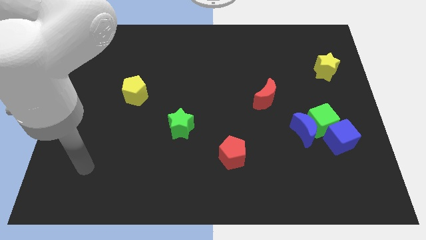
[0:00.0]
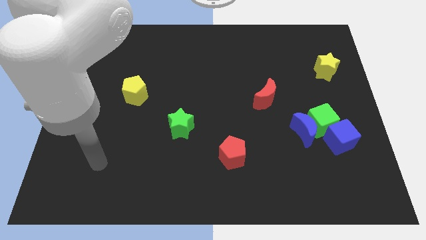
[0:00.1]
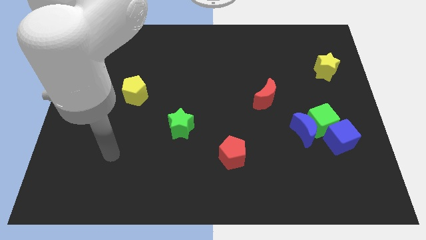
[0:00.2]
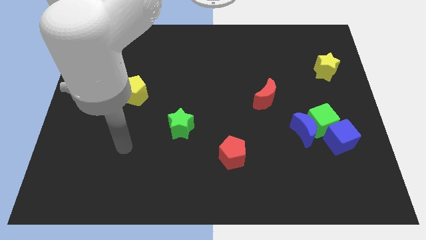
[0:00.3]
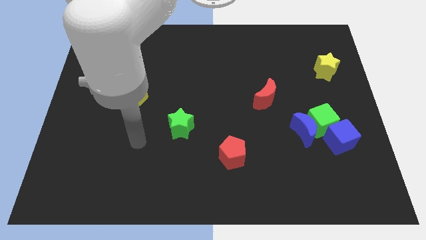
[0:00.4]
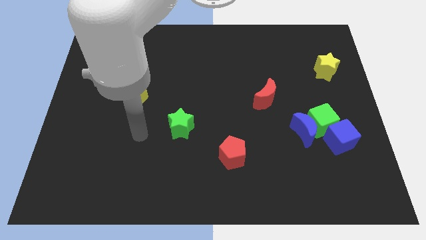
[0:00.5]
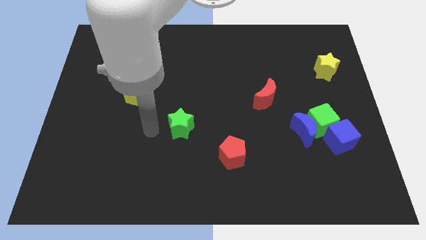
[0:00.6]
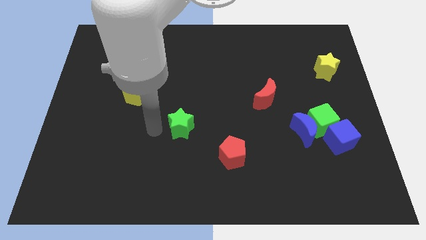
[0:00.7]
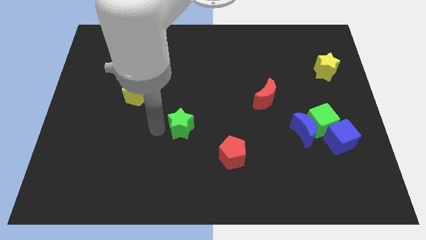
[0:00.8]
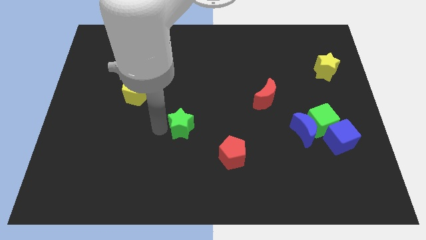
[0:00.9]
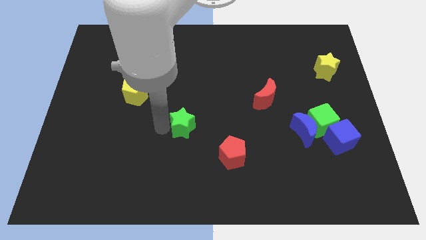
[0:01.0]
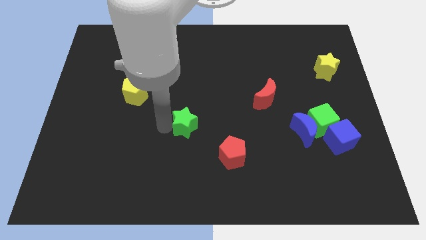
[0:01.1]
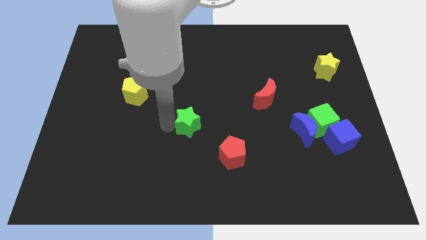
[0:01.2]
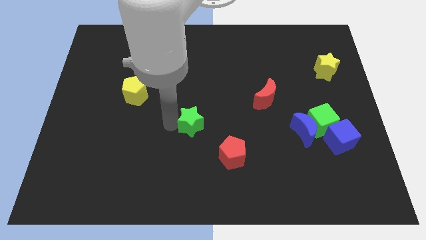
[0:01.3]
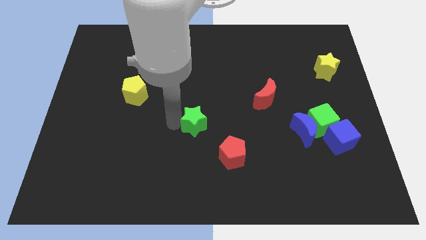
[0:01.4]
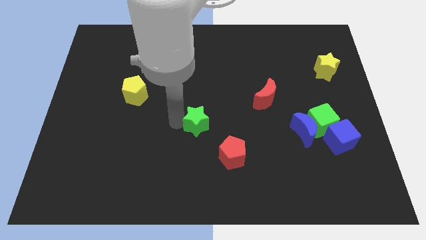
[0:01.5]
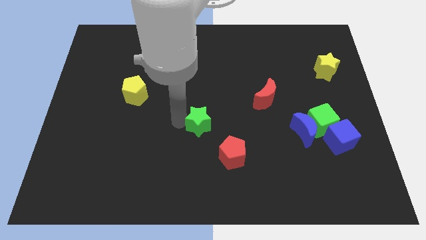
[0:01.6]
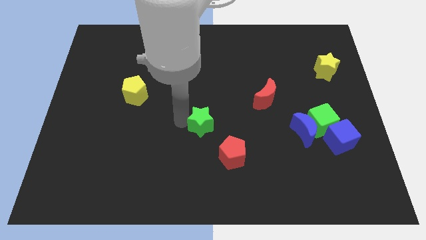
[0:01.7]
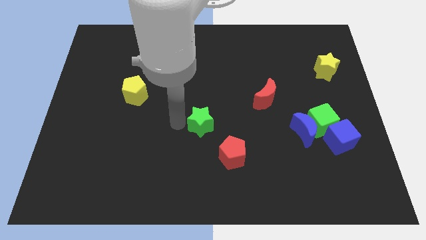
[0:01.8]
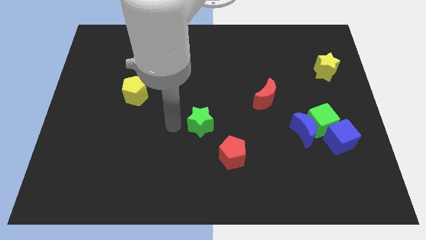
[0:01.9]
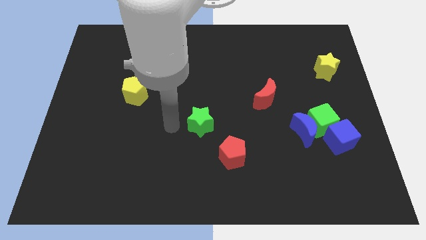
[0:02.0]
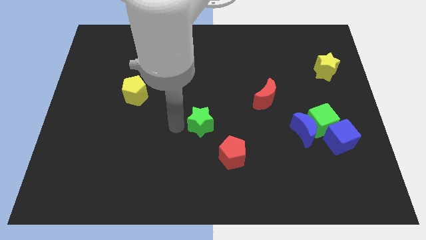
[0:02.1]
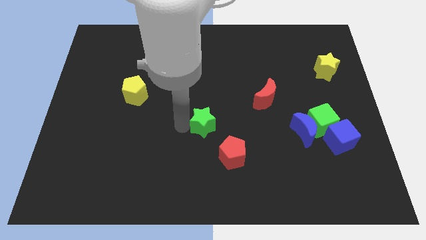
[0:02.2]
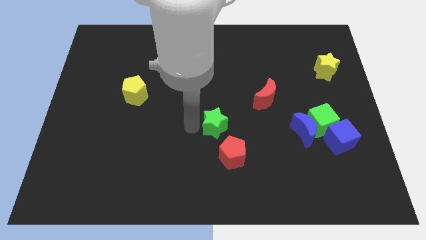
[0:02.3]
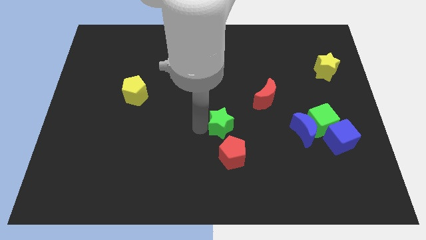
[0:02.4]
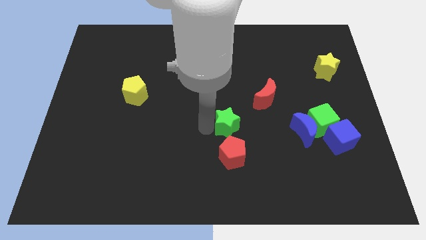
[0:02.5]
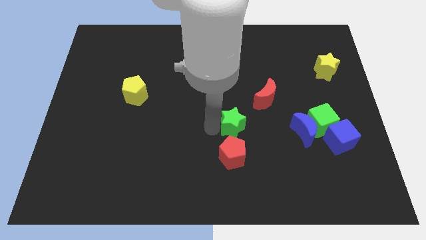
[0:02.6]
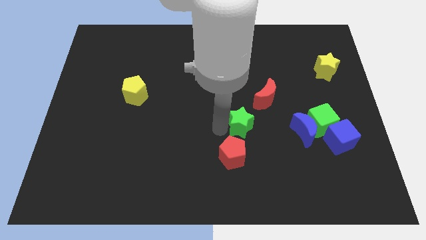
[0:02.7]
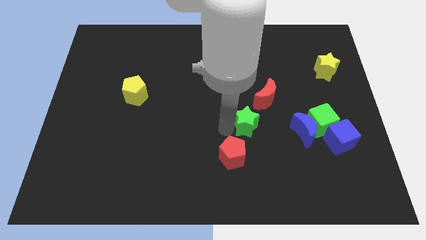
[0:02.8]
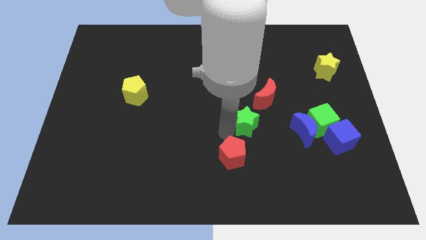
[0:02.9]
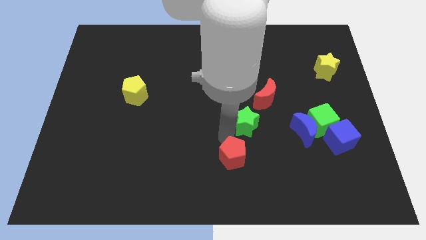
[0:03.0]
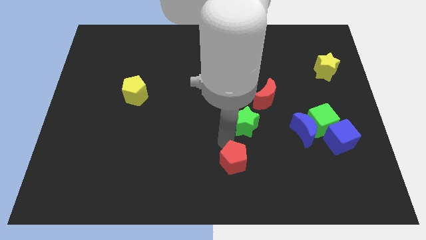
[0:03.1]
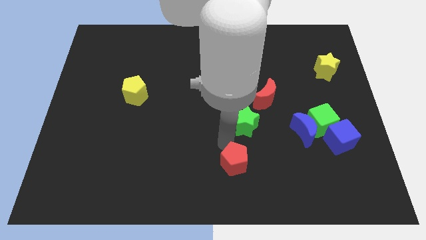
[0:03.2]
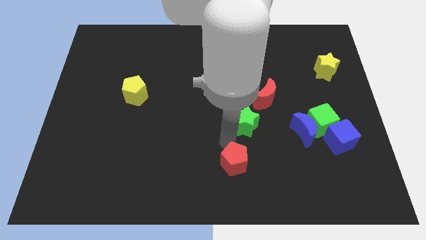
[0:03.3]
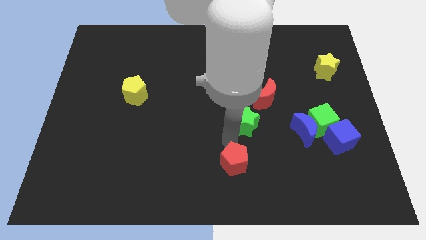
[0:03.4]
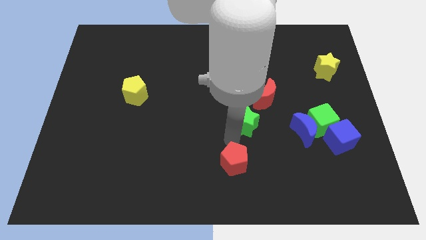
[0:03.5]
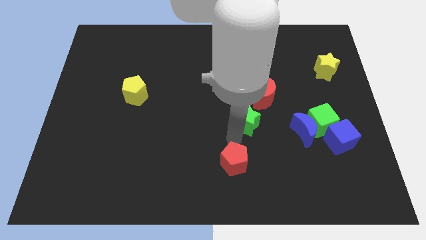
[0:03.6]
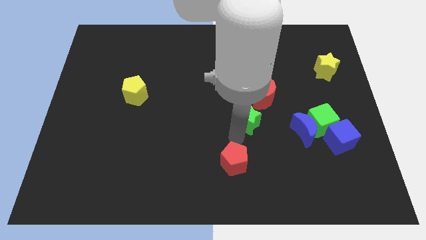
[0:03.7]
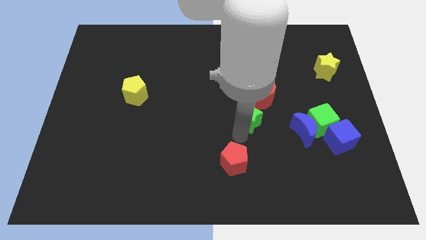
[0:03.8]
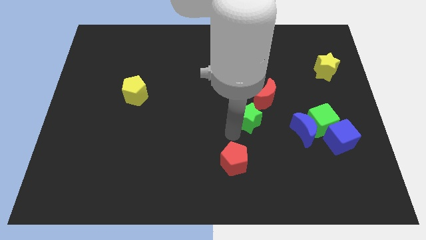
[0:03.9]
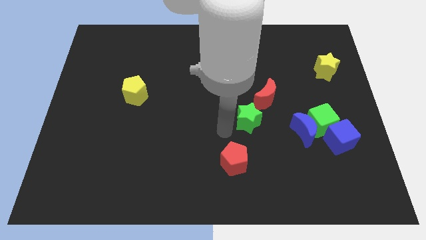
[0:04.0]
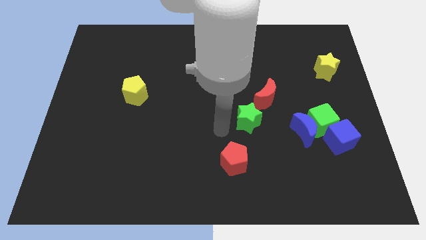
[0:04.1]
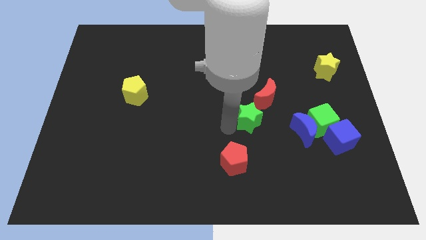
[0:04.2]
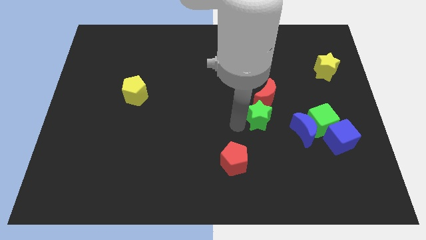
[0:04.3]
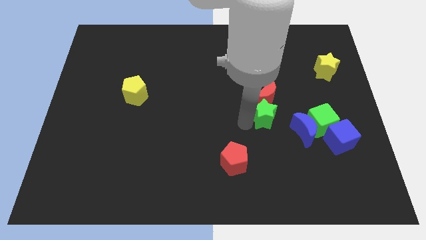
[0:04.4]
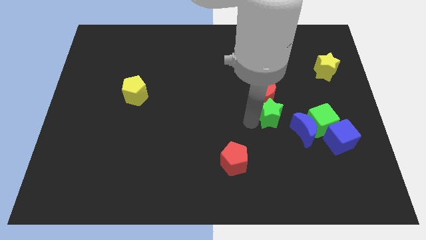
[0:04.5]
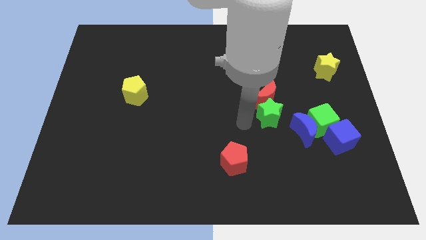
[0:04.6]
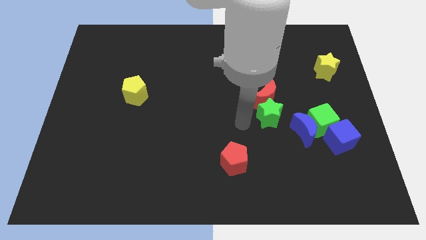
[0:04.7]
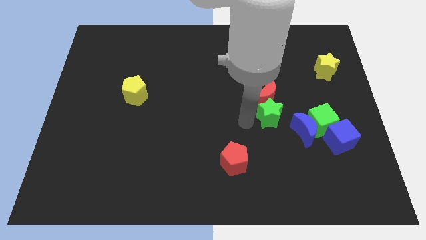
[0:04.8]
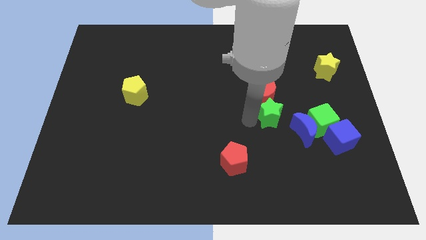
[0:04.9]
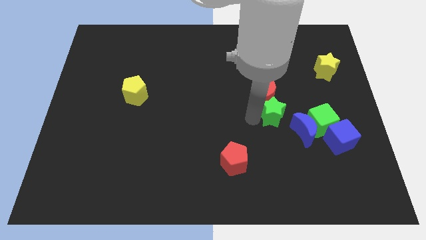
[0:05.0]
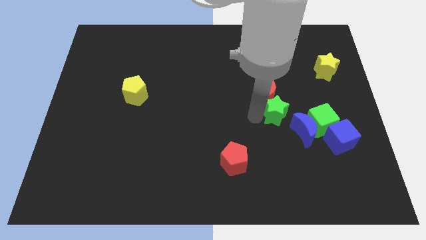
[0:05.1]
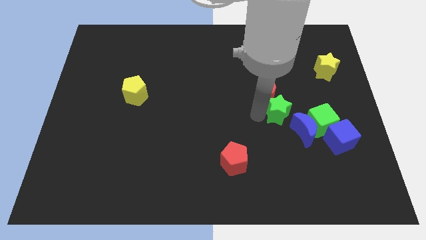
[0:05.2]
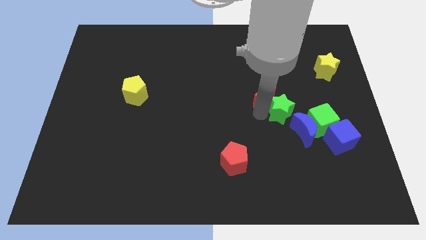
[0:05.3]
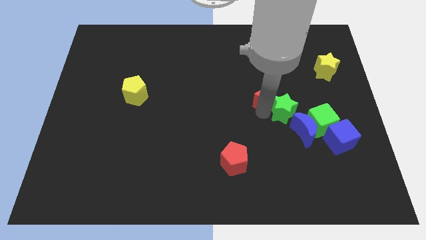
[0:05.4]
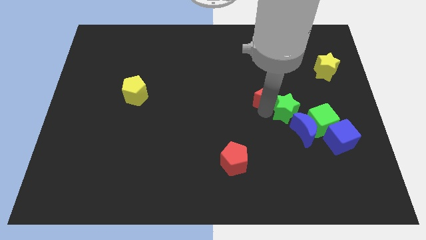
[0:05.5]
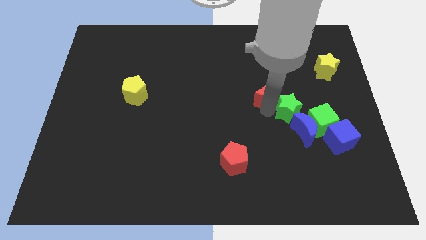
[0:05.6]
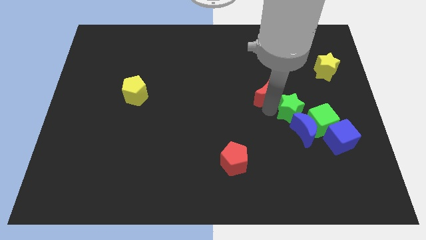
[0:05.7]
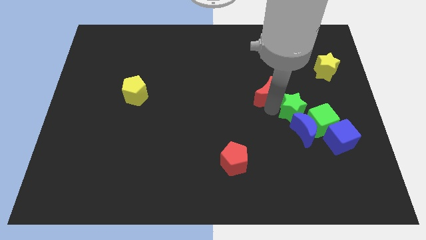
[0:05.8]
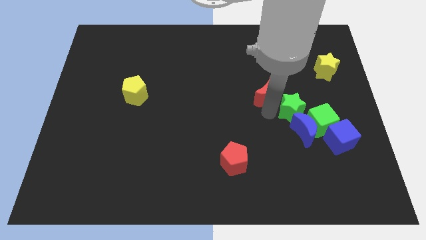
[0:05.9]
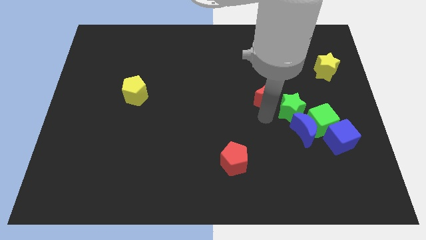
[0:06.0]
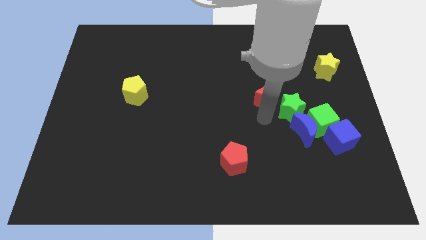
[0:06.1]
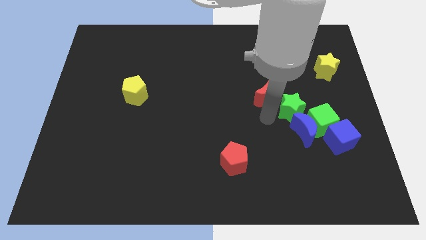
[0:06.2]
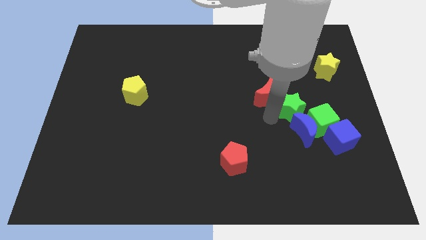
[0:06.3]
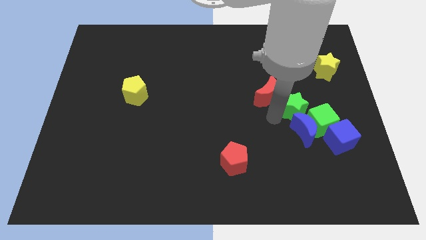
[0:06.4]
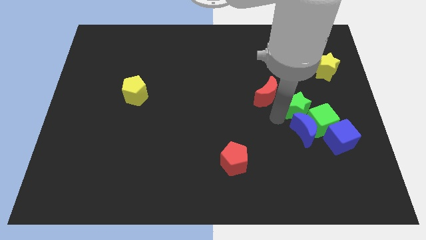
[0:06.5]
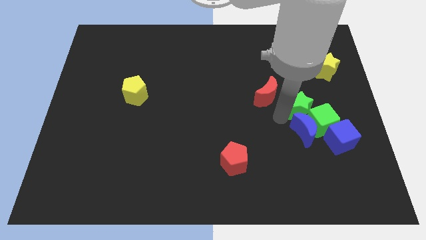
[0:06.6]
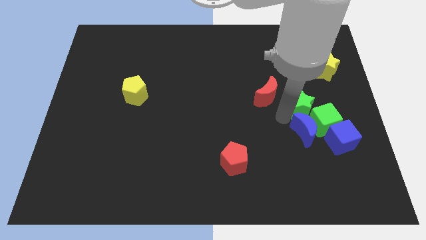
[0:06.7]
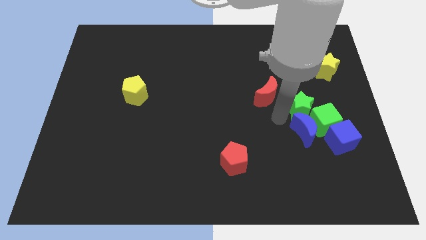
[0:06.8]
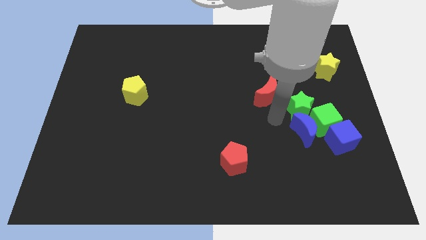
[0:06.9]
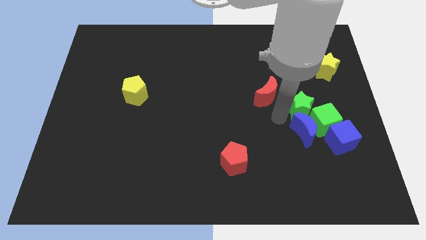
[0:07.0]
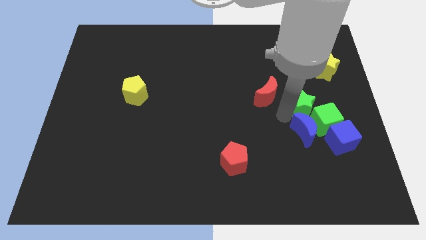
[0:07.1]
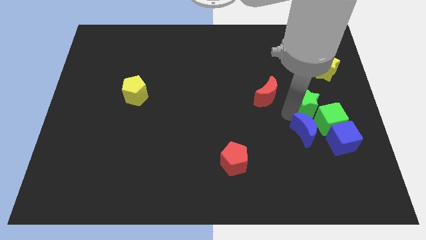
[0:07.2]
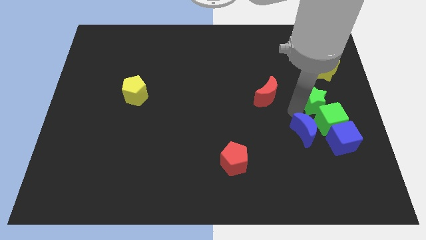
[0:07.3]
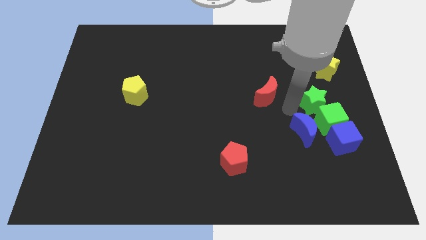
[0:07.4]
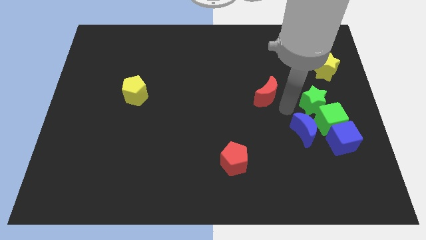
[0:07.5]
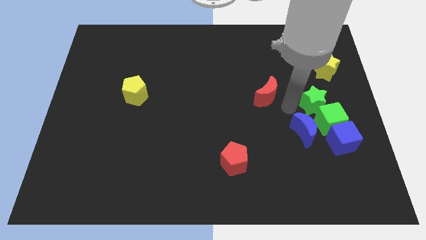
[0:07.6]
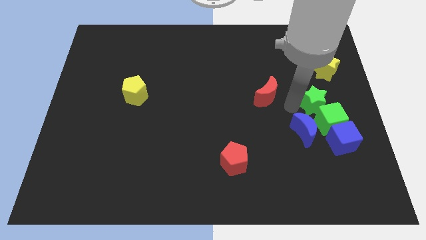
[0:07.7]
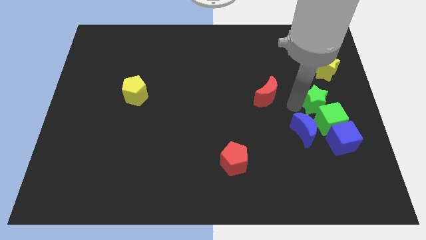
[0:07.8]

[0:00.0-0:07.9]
push the green star to the bottom side of the yellow star
